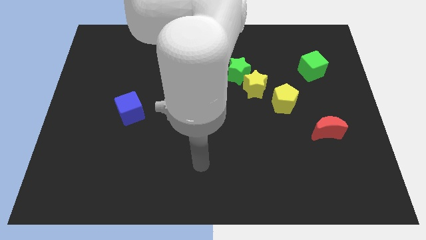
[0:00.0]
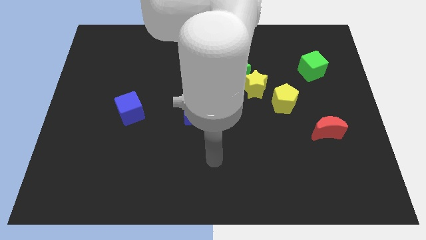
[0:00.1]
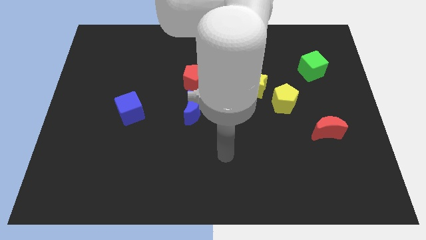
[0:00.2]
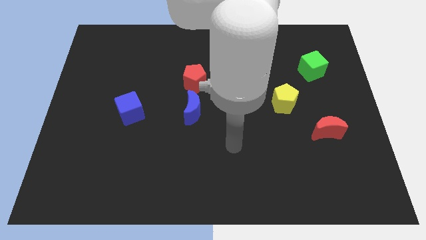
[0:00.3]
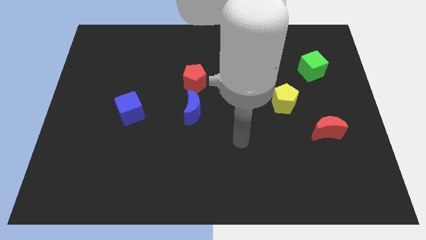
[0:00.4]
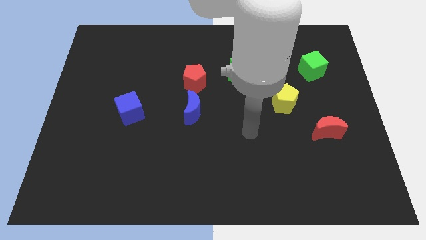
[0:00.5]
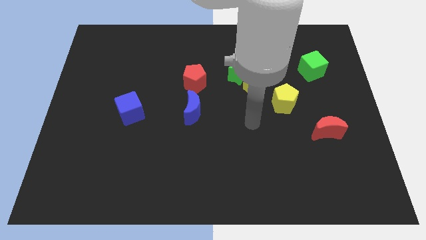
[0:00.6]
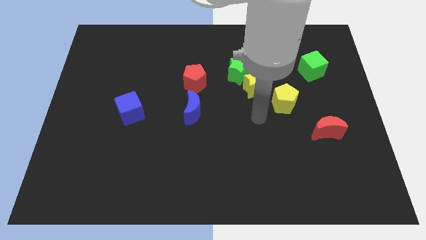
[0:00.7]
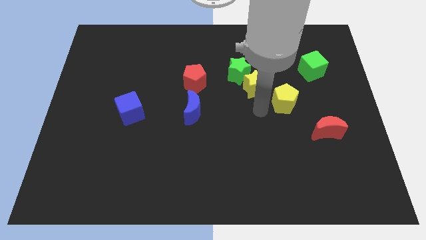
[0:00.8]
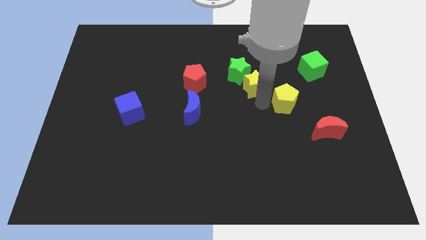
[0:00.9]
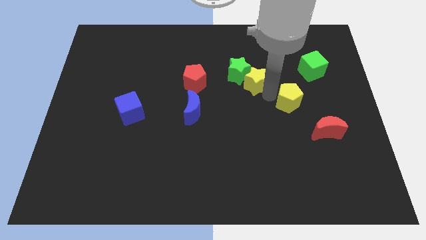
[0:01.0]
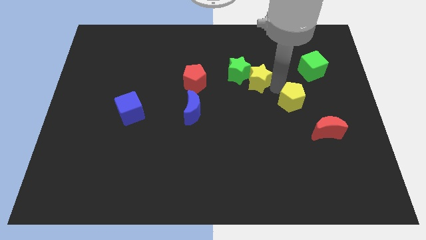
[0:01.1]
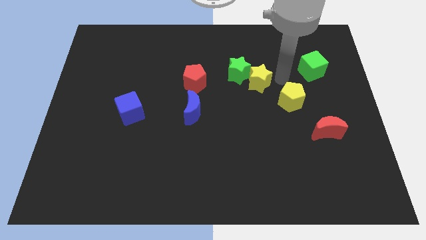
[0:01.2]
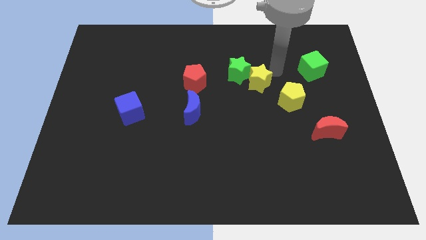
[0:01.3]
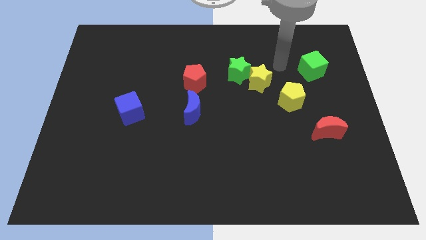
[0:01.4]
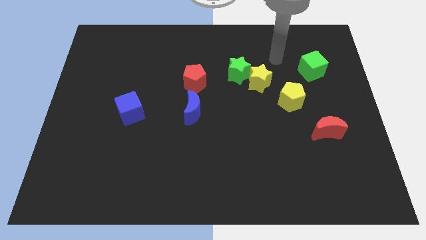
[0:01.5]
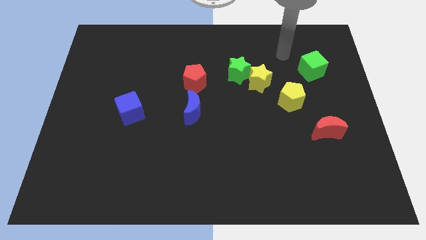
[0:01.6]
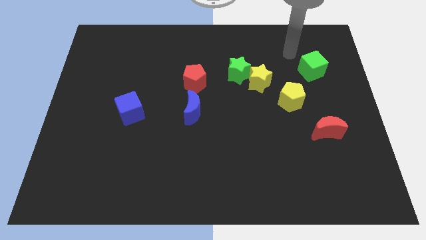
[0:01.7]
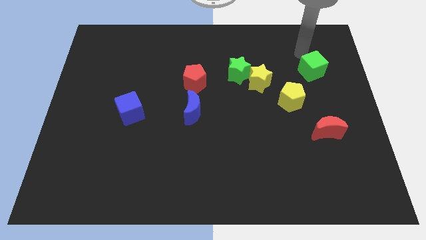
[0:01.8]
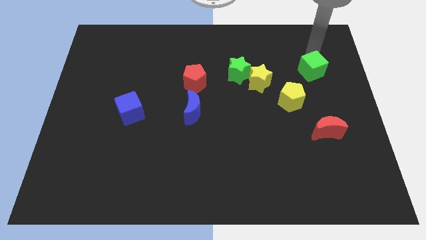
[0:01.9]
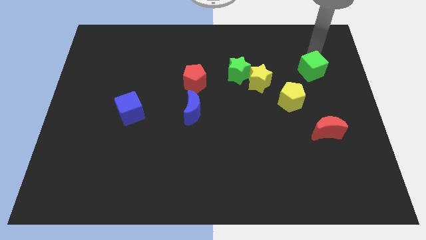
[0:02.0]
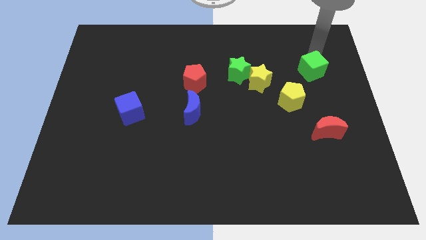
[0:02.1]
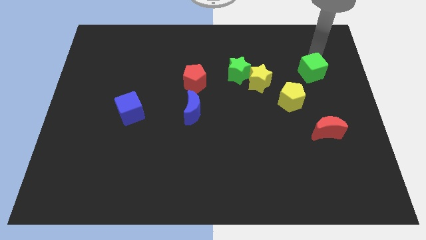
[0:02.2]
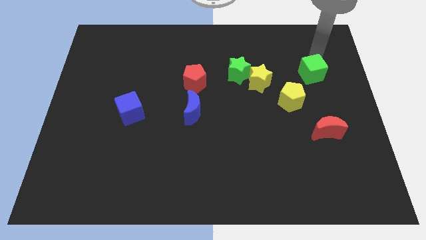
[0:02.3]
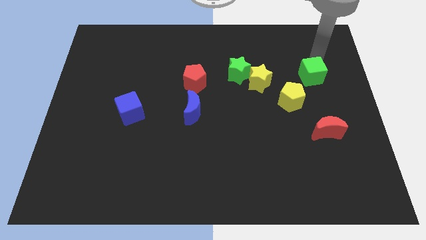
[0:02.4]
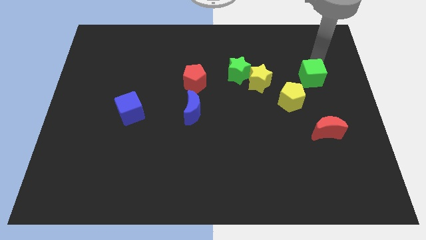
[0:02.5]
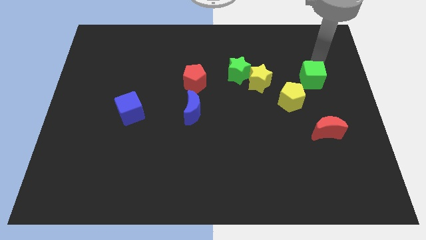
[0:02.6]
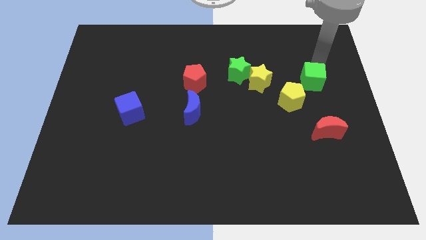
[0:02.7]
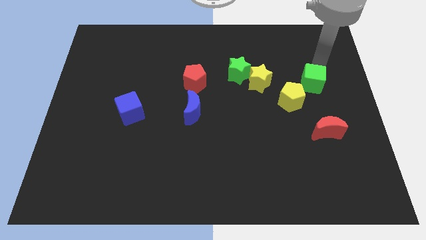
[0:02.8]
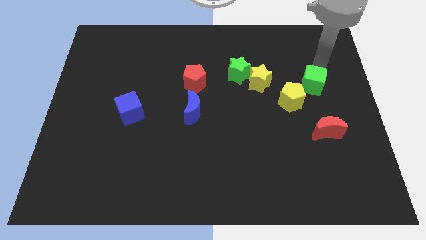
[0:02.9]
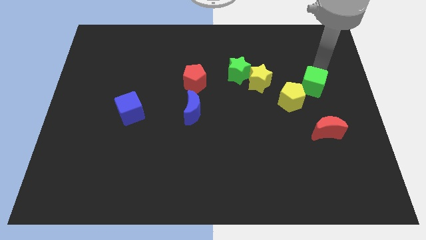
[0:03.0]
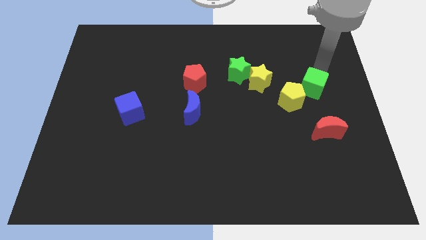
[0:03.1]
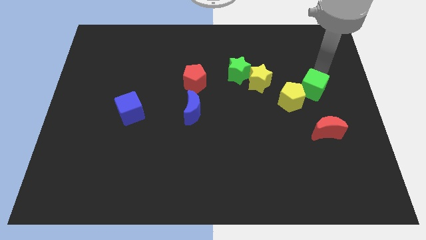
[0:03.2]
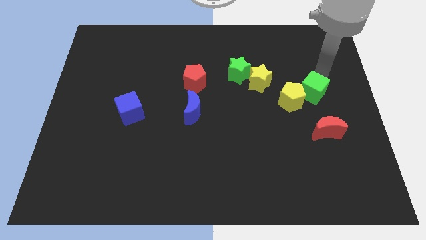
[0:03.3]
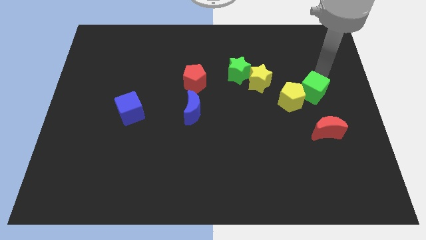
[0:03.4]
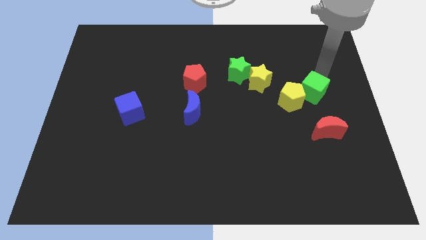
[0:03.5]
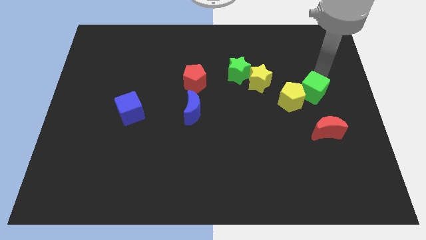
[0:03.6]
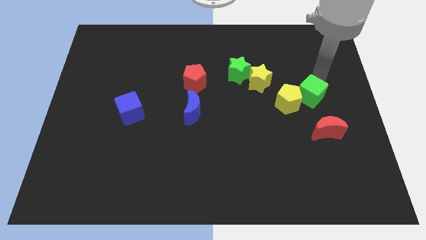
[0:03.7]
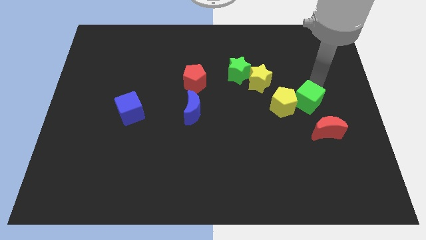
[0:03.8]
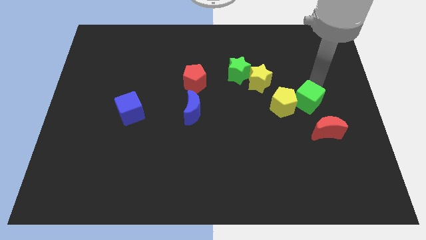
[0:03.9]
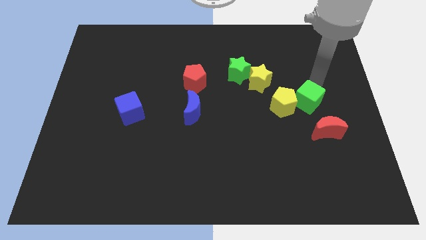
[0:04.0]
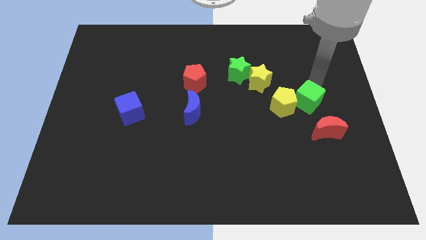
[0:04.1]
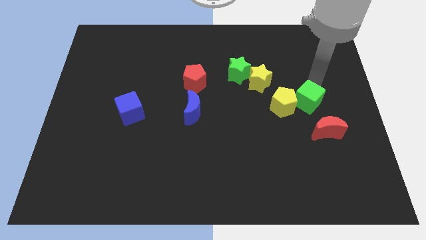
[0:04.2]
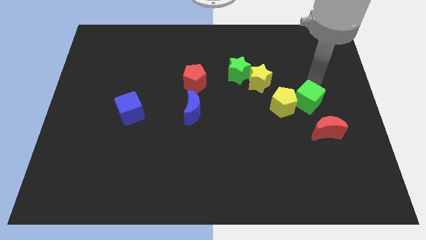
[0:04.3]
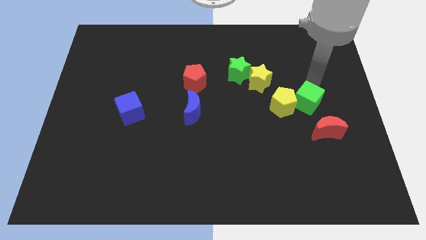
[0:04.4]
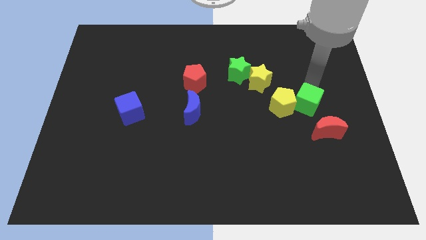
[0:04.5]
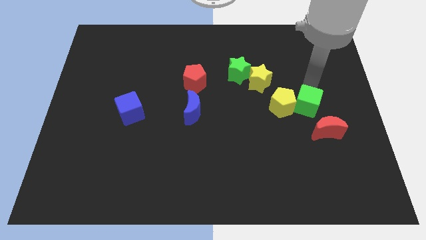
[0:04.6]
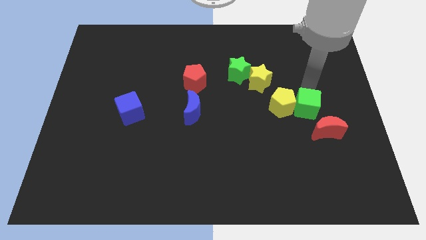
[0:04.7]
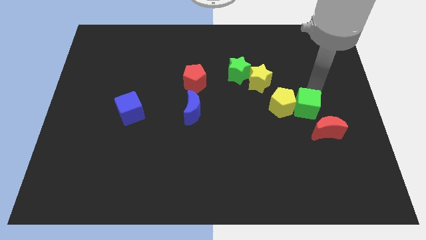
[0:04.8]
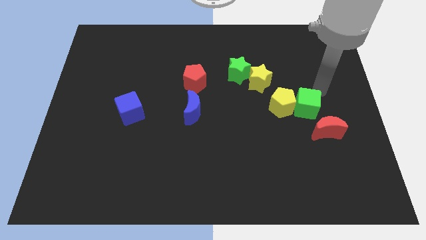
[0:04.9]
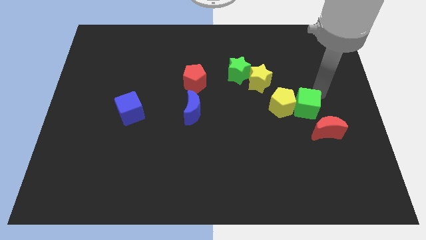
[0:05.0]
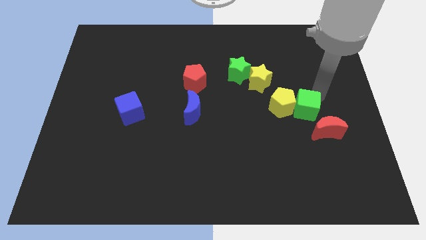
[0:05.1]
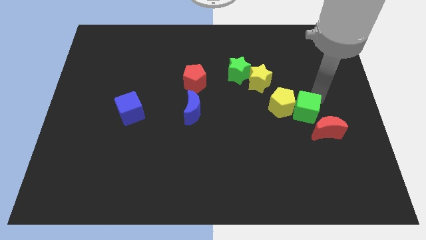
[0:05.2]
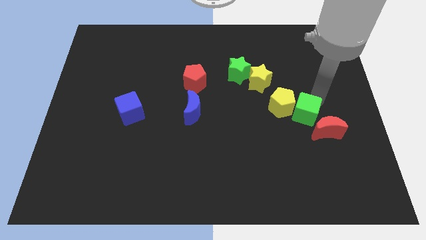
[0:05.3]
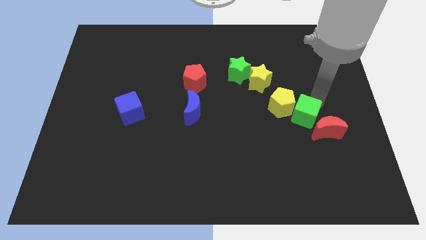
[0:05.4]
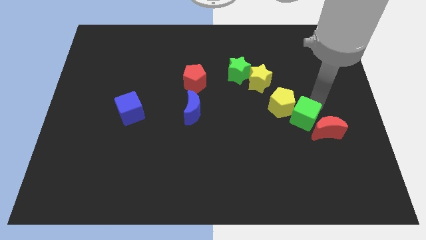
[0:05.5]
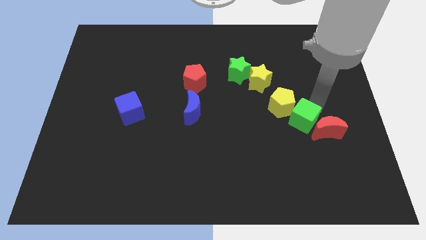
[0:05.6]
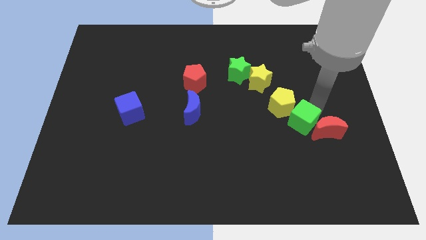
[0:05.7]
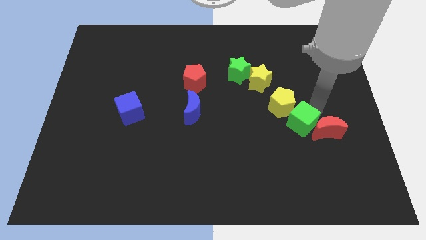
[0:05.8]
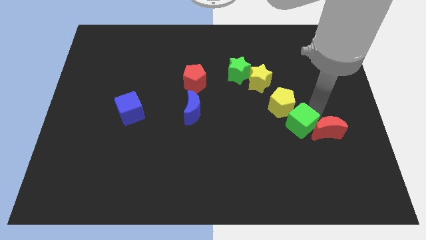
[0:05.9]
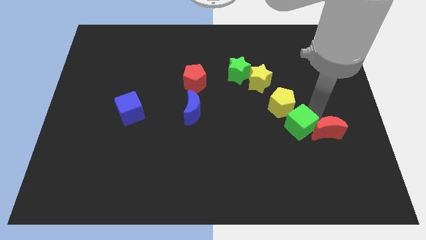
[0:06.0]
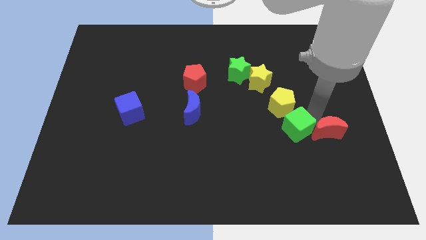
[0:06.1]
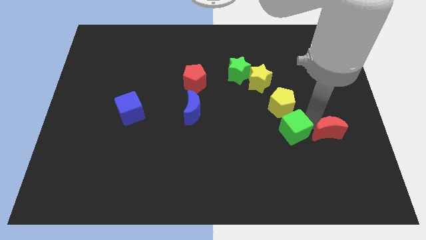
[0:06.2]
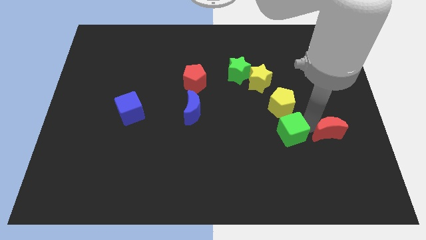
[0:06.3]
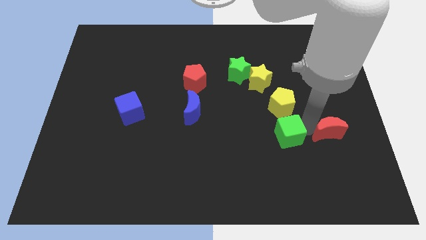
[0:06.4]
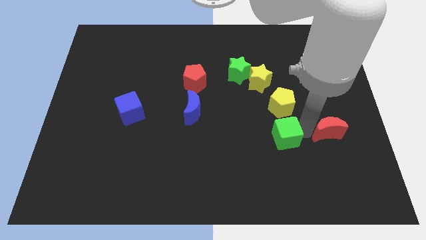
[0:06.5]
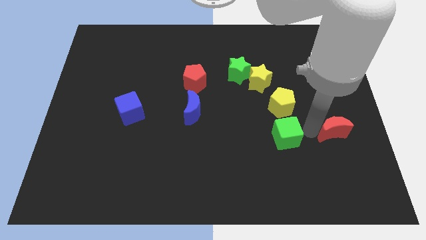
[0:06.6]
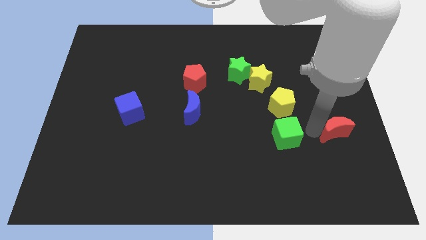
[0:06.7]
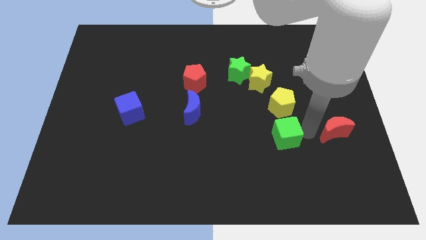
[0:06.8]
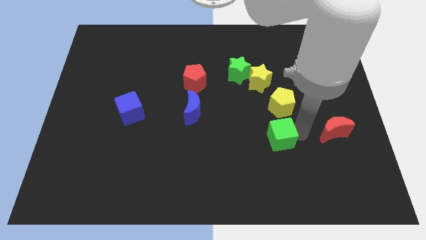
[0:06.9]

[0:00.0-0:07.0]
move the green cube downwards and to the left diagonally

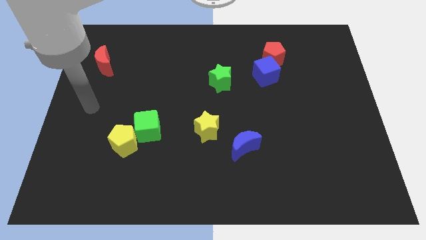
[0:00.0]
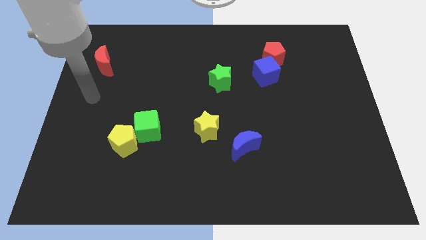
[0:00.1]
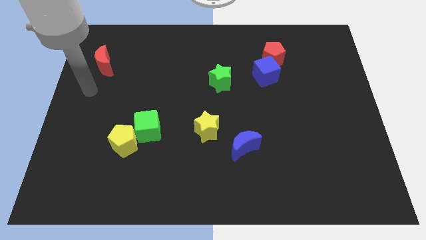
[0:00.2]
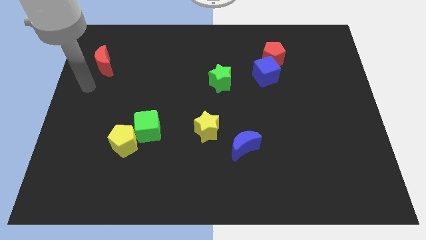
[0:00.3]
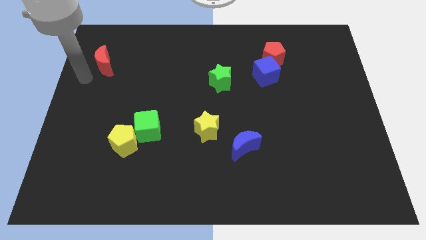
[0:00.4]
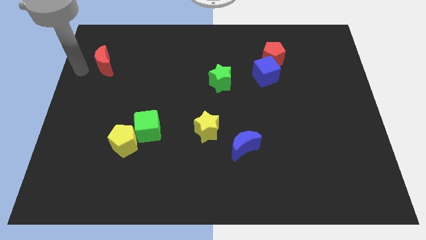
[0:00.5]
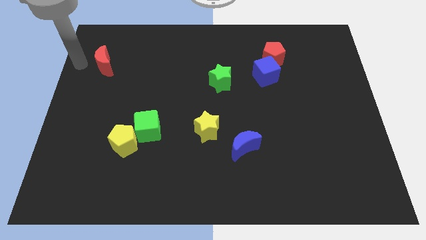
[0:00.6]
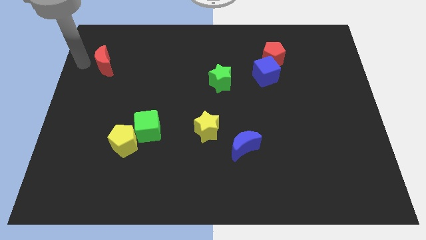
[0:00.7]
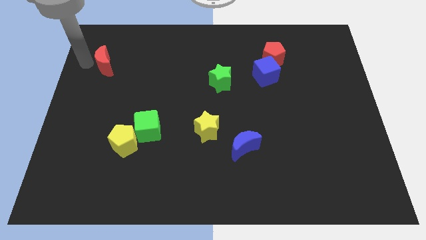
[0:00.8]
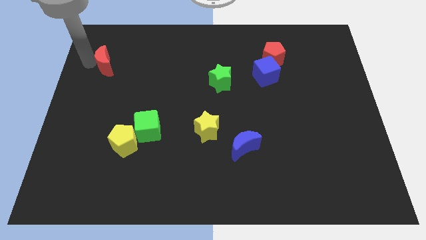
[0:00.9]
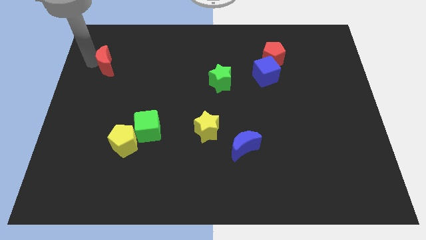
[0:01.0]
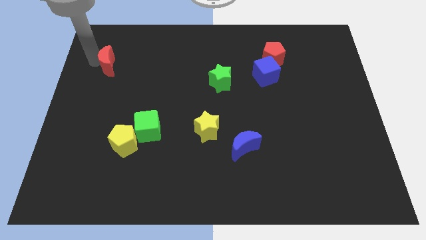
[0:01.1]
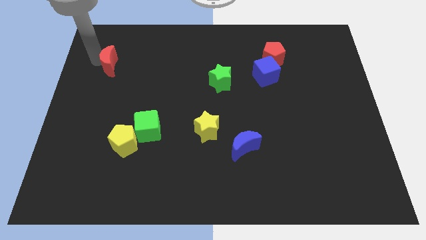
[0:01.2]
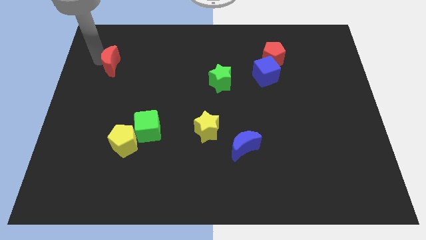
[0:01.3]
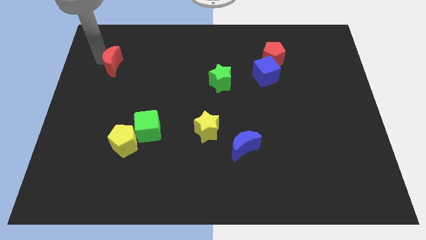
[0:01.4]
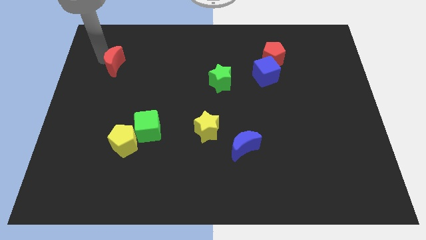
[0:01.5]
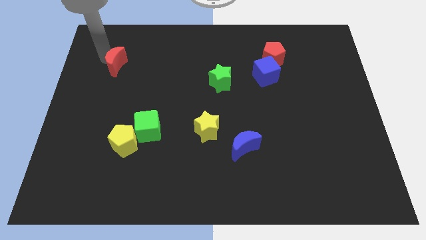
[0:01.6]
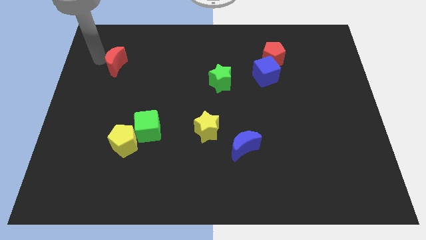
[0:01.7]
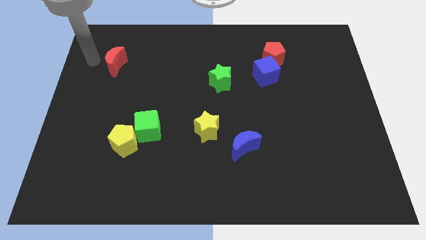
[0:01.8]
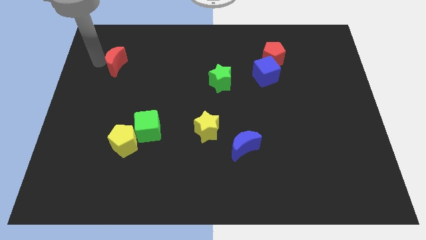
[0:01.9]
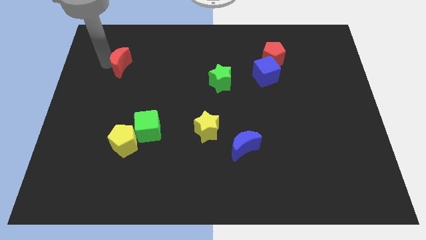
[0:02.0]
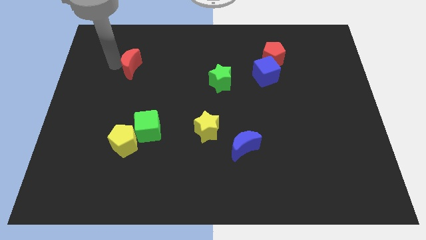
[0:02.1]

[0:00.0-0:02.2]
push the red moon a little right
